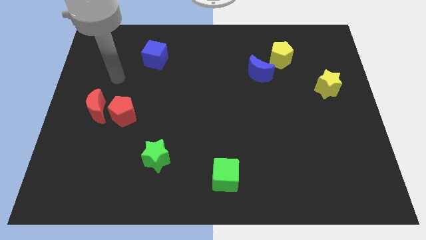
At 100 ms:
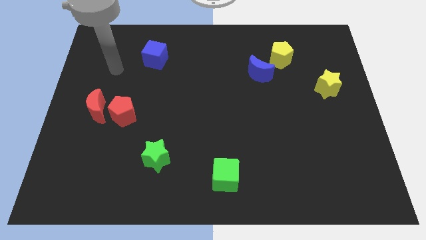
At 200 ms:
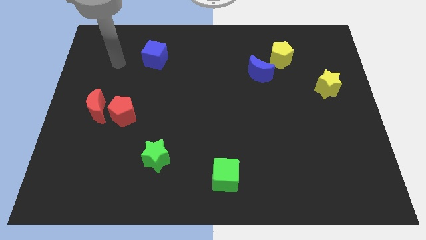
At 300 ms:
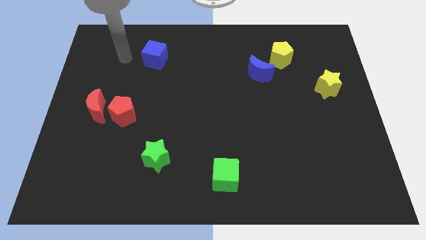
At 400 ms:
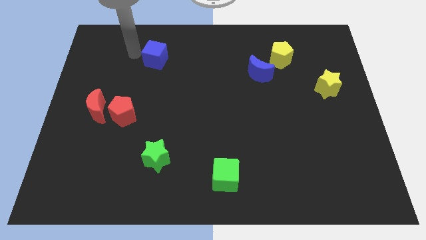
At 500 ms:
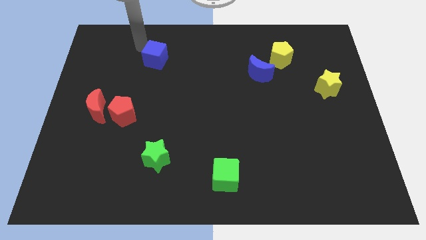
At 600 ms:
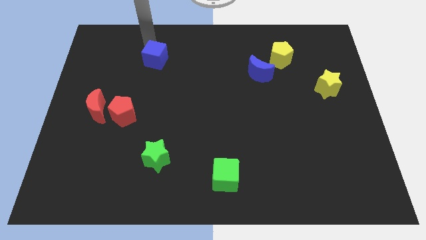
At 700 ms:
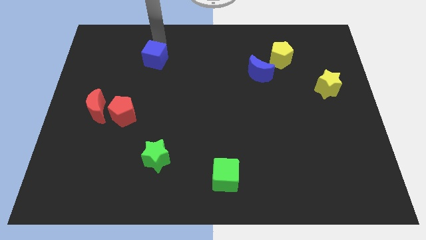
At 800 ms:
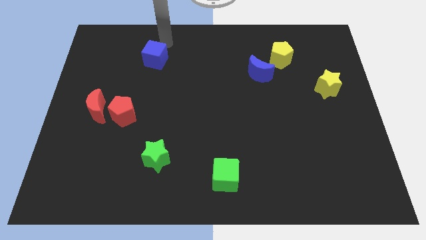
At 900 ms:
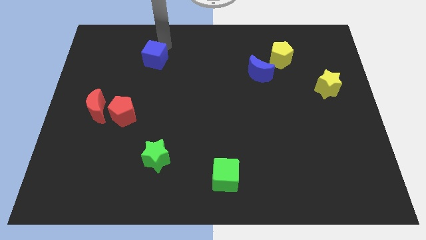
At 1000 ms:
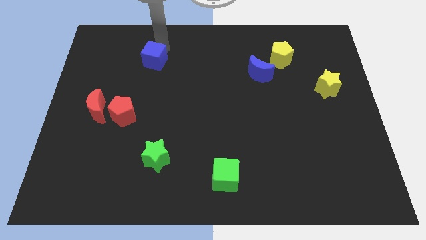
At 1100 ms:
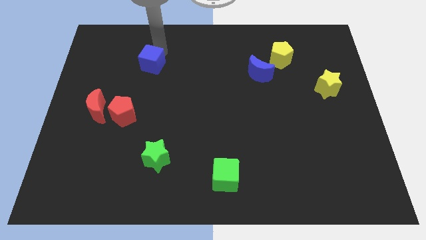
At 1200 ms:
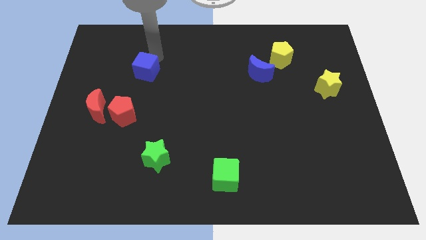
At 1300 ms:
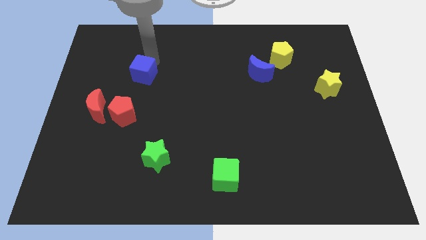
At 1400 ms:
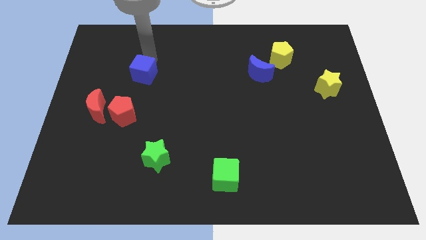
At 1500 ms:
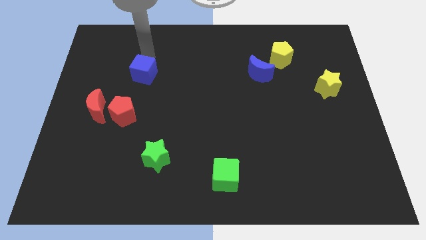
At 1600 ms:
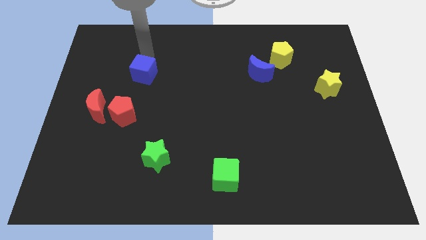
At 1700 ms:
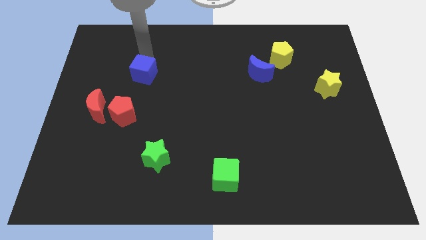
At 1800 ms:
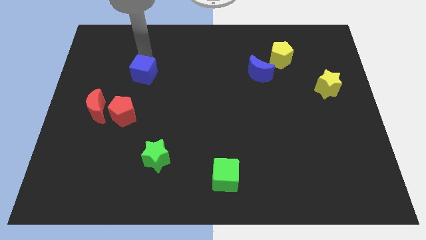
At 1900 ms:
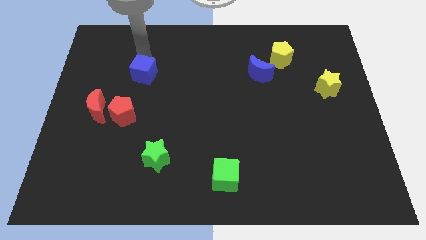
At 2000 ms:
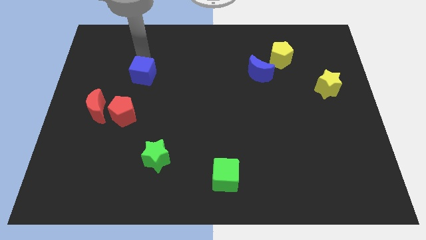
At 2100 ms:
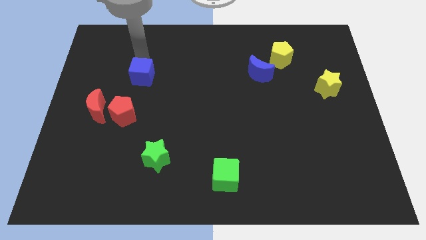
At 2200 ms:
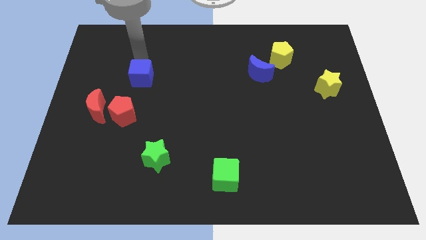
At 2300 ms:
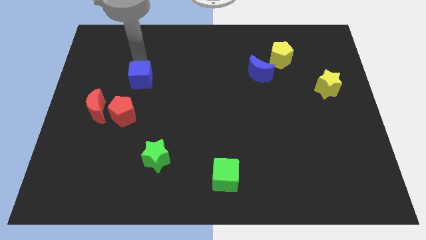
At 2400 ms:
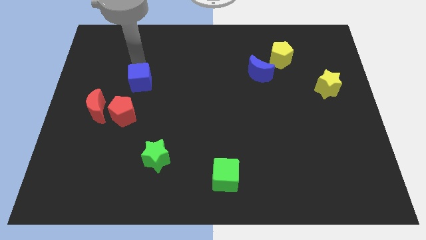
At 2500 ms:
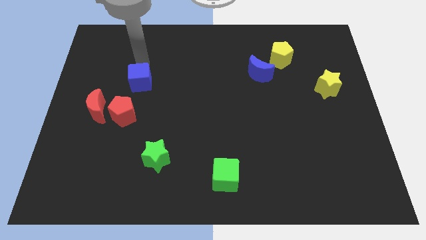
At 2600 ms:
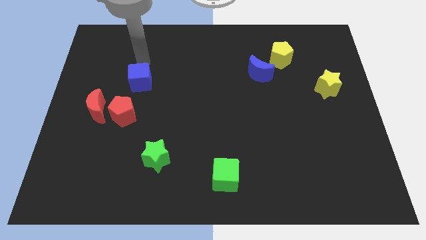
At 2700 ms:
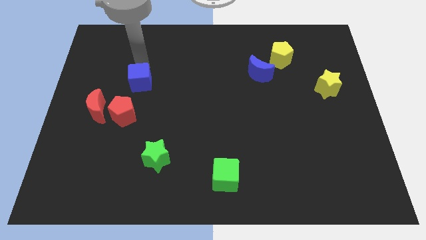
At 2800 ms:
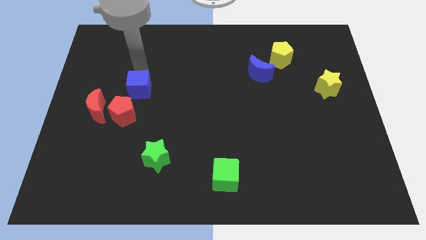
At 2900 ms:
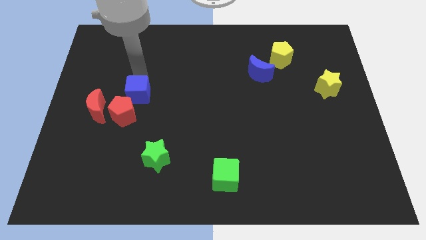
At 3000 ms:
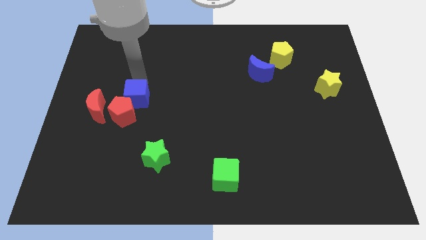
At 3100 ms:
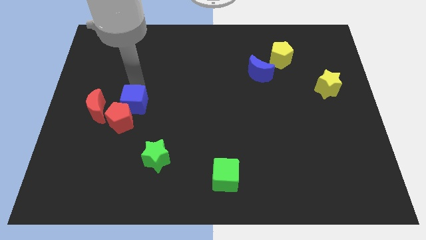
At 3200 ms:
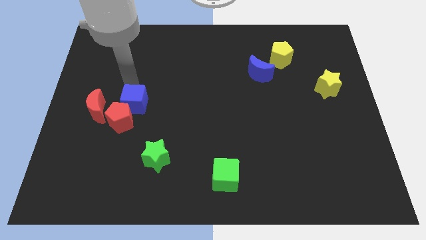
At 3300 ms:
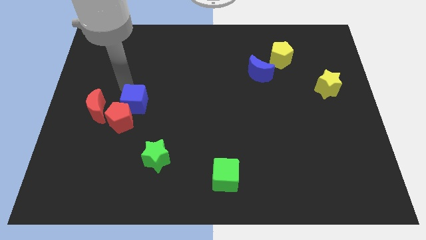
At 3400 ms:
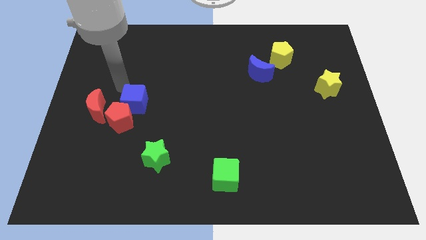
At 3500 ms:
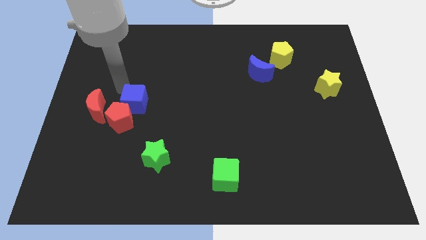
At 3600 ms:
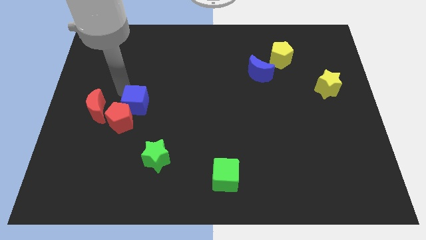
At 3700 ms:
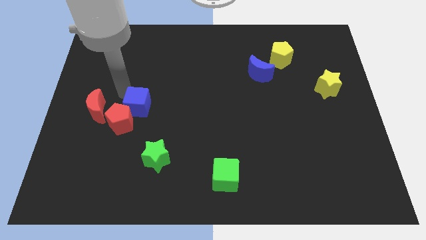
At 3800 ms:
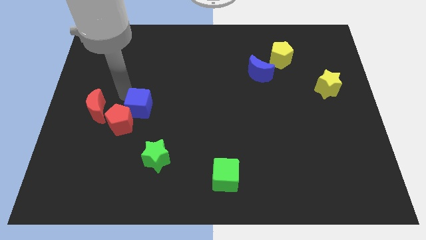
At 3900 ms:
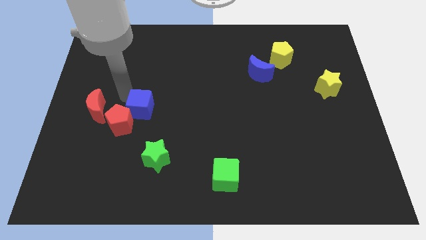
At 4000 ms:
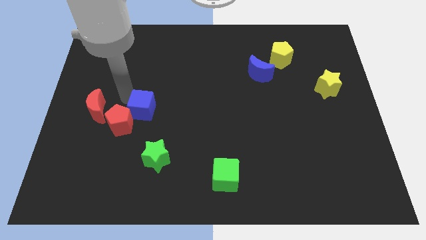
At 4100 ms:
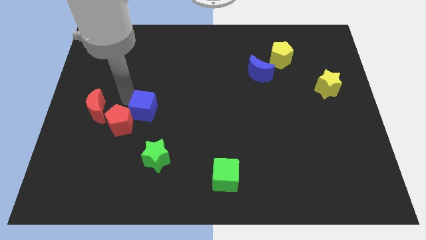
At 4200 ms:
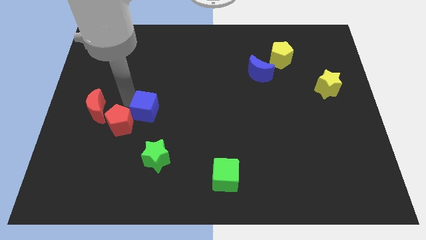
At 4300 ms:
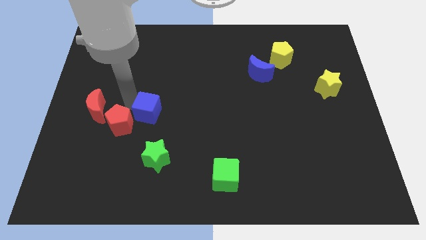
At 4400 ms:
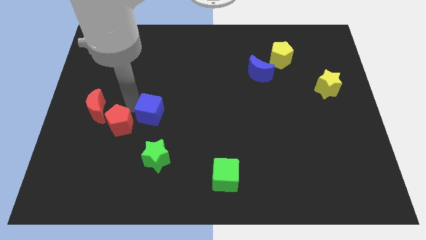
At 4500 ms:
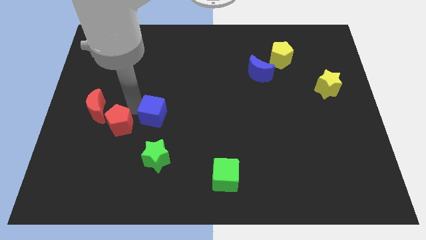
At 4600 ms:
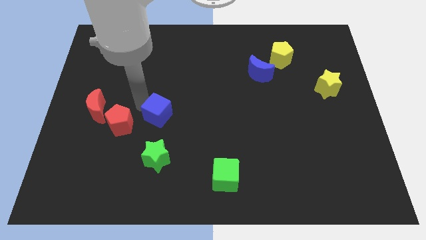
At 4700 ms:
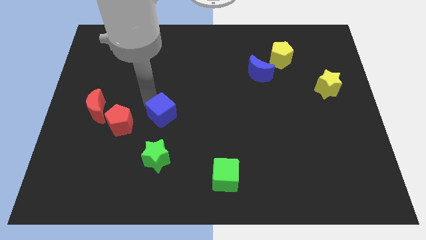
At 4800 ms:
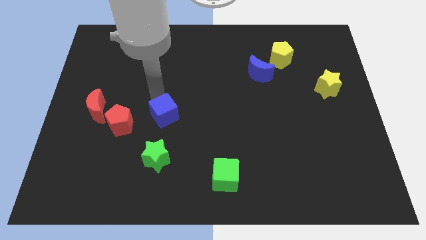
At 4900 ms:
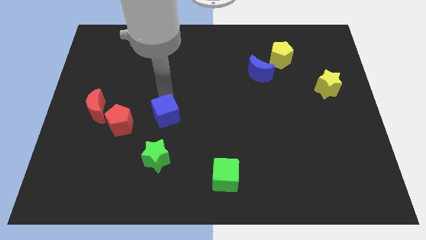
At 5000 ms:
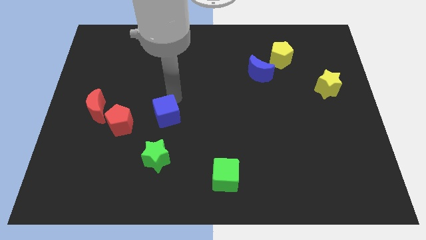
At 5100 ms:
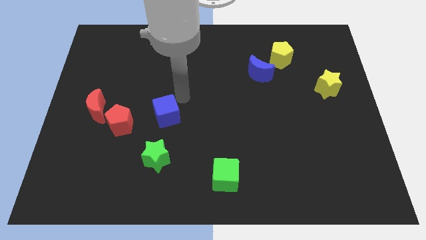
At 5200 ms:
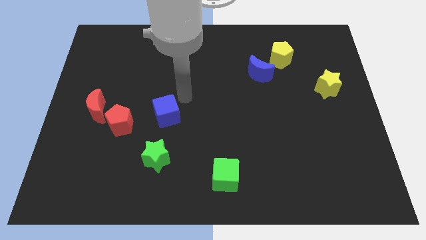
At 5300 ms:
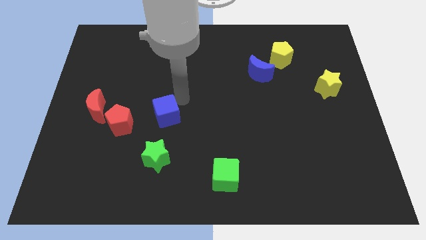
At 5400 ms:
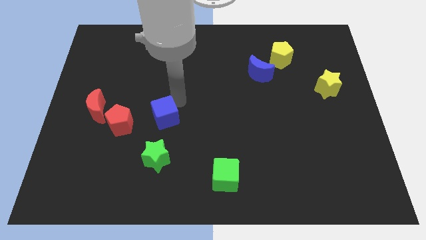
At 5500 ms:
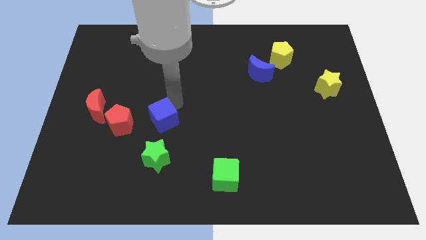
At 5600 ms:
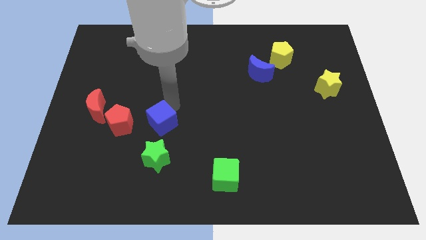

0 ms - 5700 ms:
move the blue cube downwards

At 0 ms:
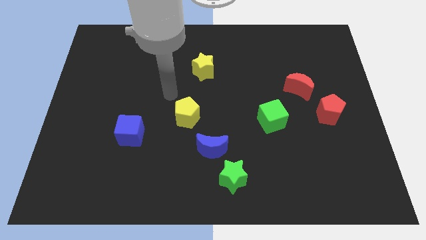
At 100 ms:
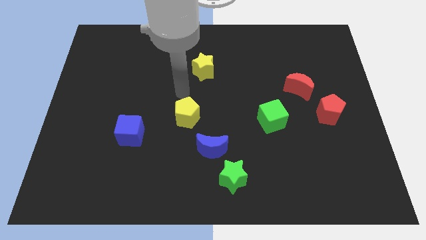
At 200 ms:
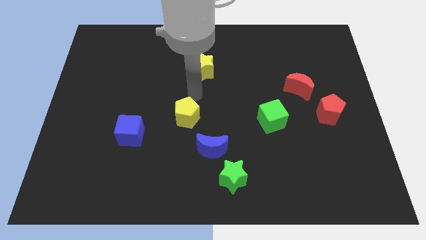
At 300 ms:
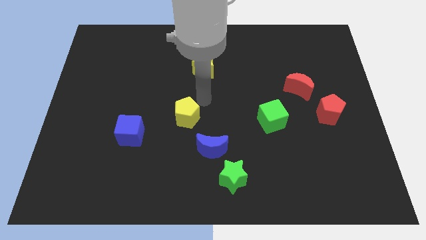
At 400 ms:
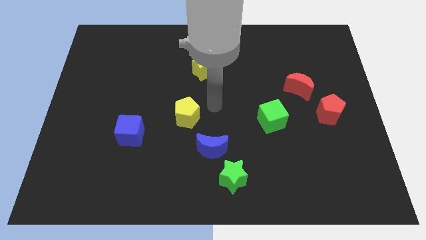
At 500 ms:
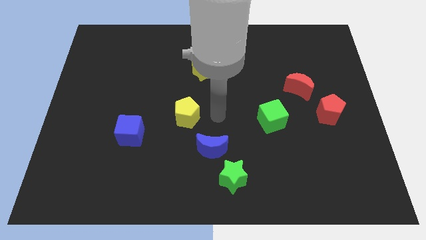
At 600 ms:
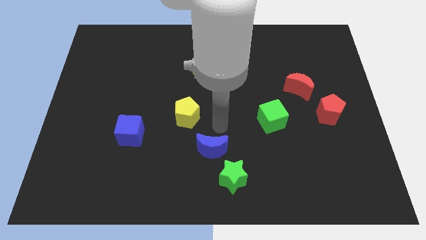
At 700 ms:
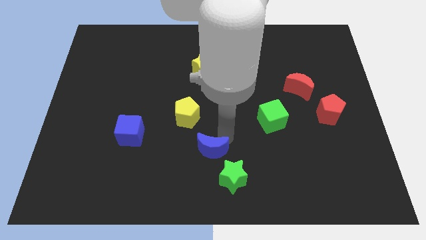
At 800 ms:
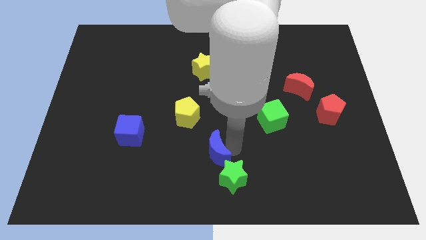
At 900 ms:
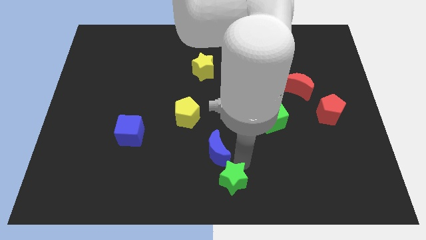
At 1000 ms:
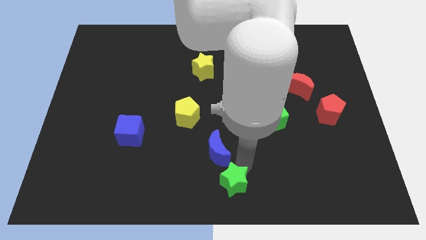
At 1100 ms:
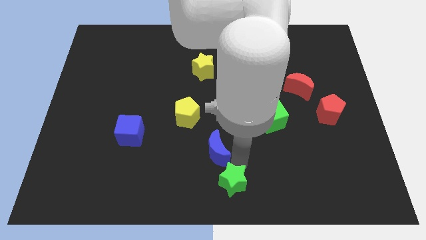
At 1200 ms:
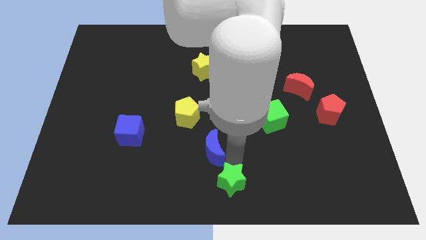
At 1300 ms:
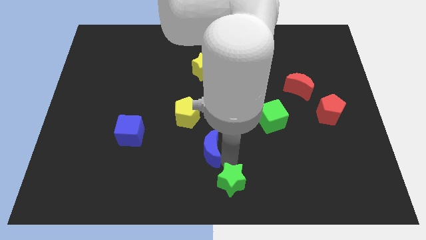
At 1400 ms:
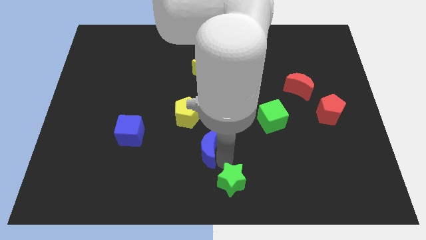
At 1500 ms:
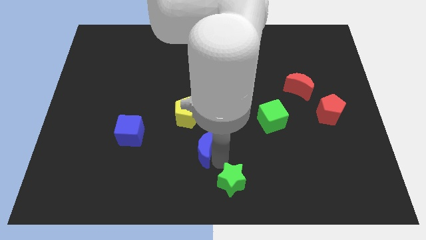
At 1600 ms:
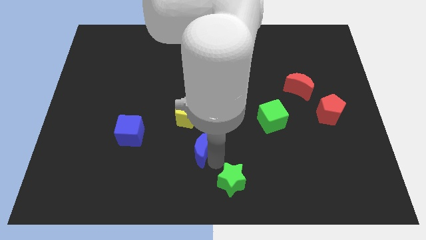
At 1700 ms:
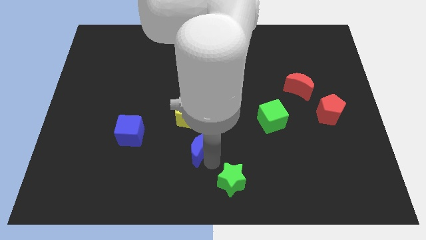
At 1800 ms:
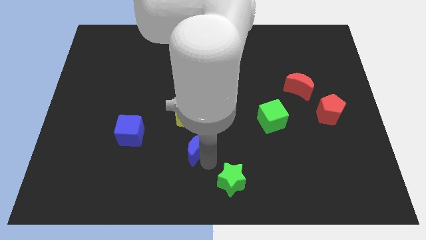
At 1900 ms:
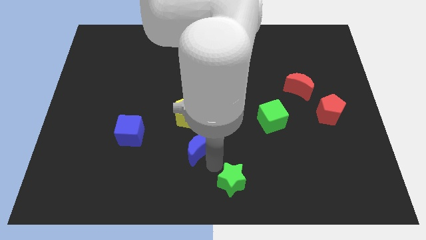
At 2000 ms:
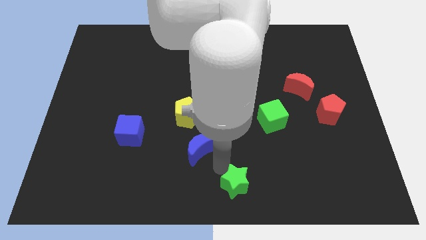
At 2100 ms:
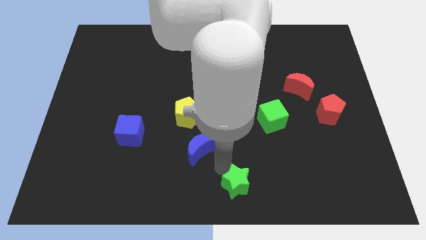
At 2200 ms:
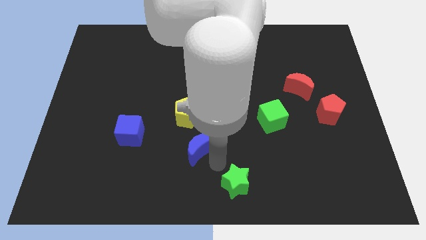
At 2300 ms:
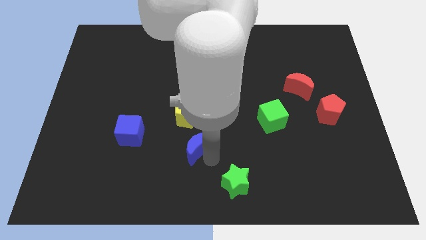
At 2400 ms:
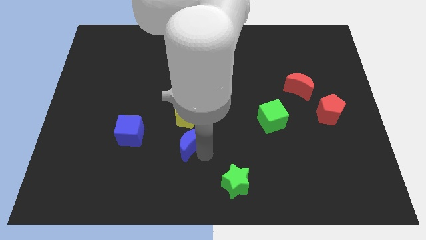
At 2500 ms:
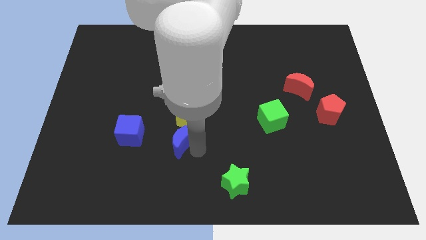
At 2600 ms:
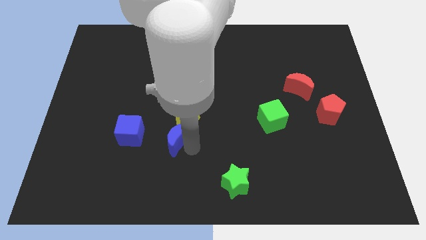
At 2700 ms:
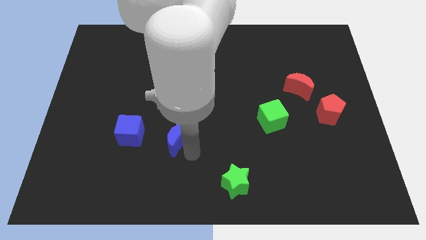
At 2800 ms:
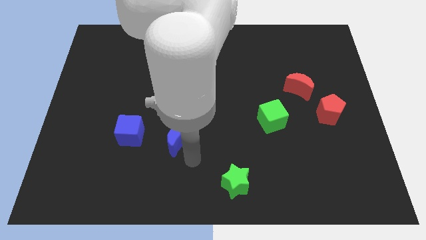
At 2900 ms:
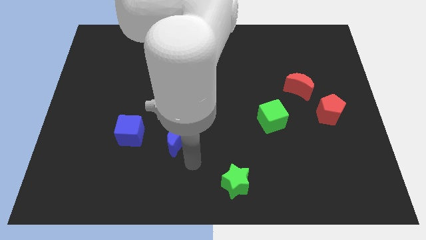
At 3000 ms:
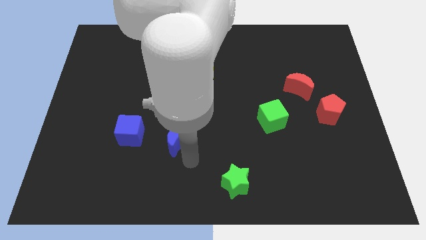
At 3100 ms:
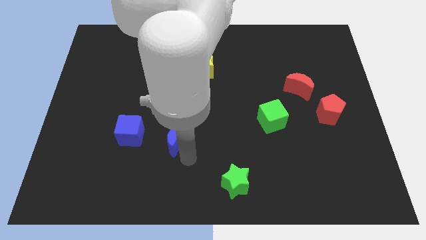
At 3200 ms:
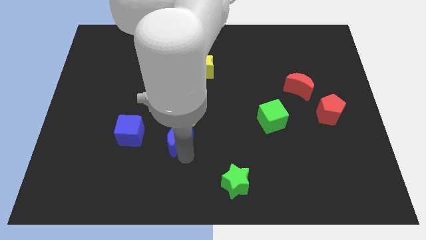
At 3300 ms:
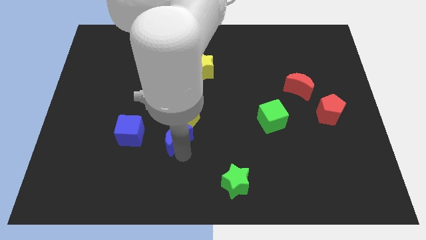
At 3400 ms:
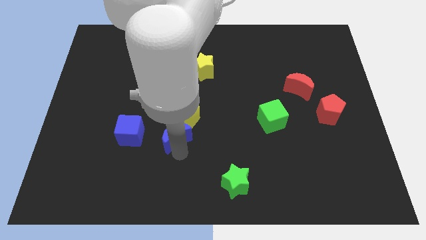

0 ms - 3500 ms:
move the blue moon slightly upwards and to the left diagonally
